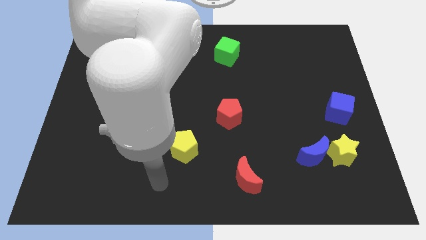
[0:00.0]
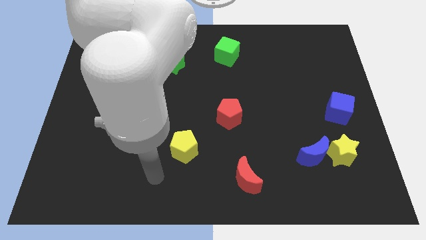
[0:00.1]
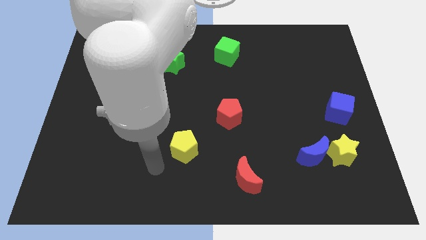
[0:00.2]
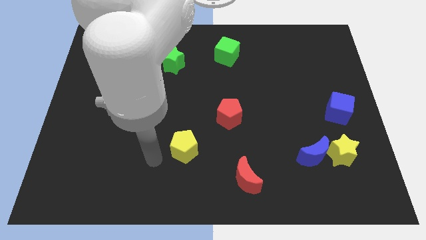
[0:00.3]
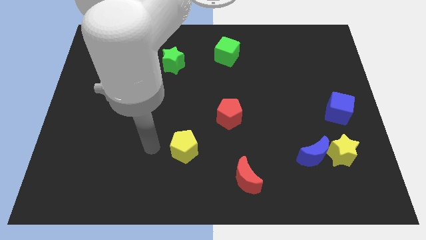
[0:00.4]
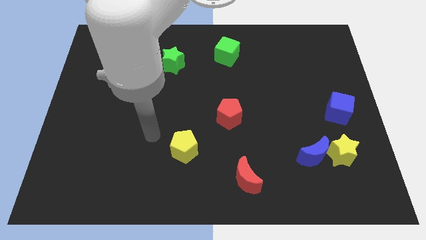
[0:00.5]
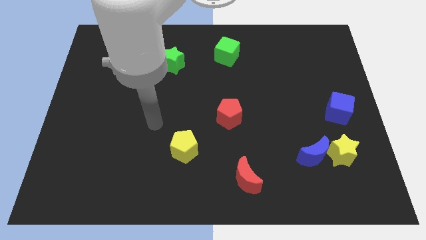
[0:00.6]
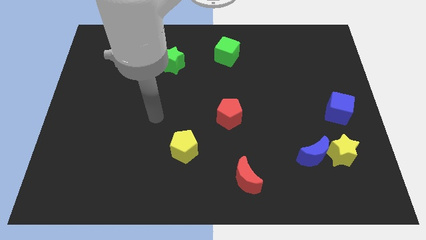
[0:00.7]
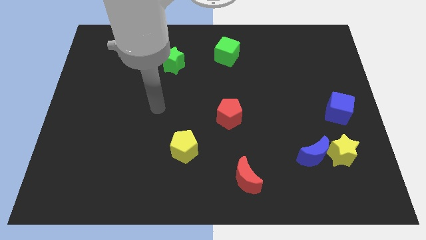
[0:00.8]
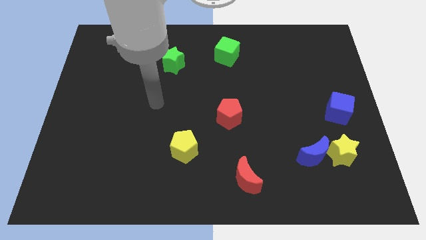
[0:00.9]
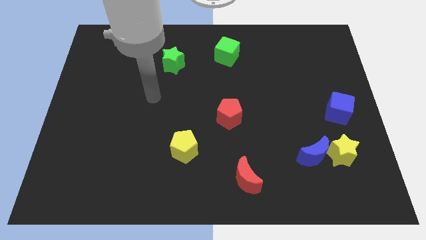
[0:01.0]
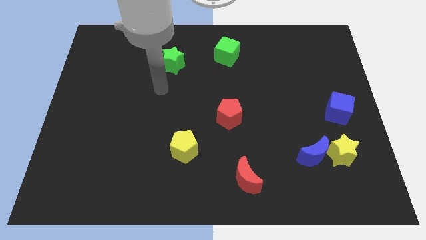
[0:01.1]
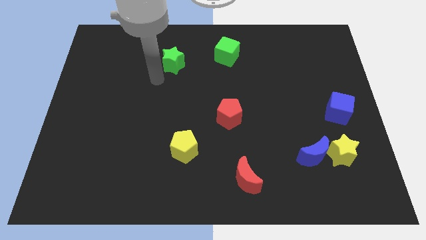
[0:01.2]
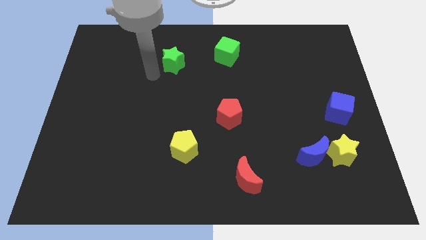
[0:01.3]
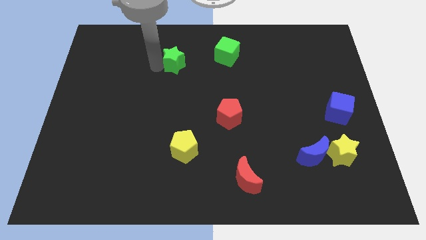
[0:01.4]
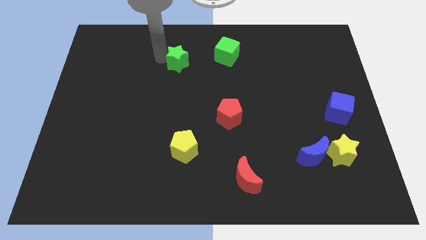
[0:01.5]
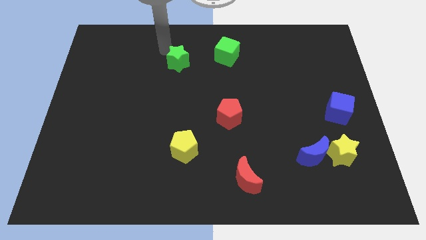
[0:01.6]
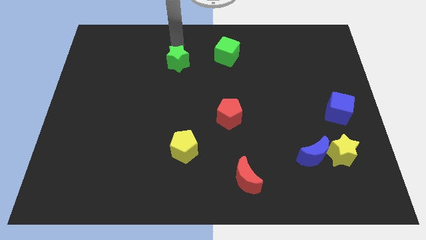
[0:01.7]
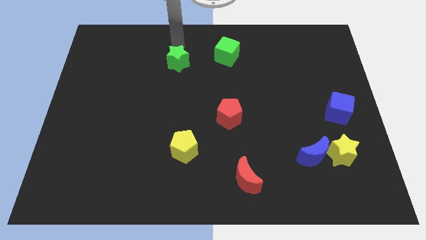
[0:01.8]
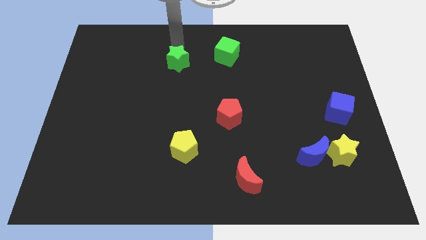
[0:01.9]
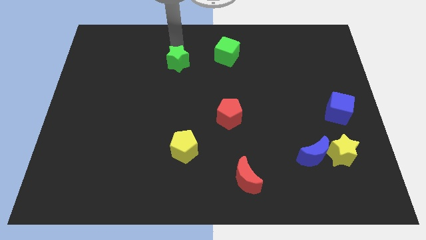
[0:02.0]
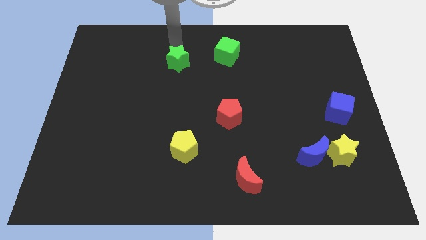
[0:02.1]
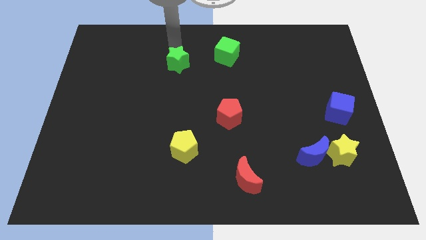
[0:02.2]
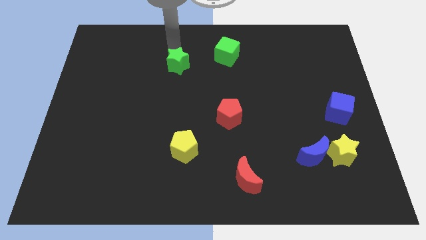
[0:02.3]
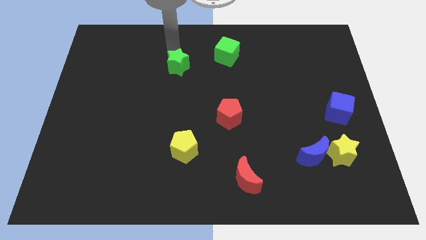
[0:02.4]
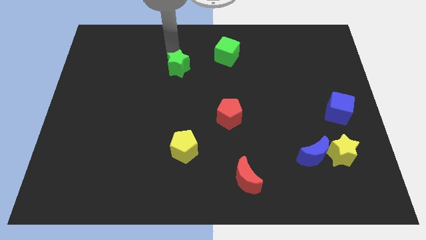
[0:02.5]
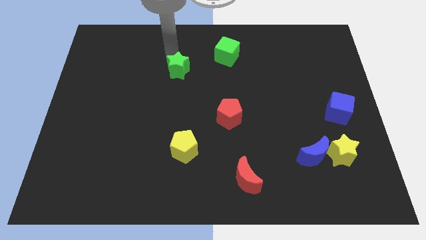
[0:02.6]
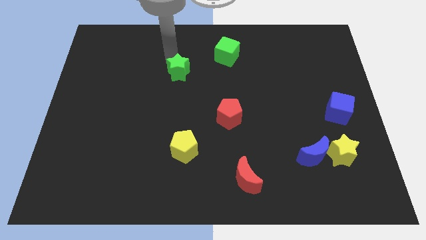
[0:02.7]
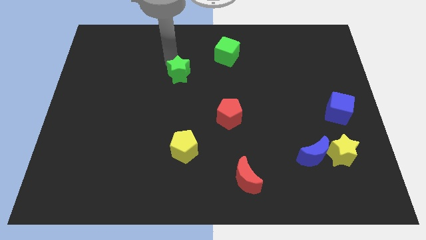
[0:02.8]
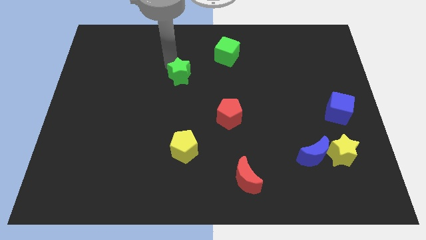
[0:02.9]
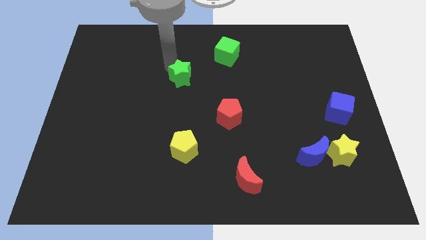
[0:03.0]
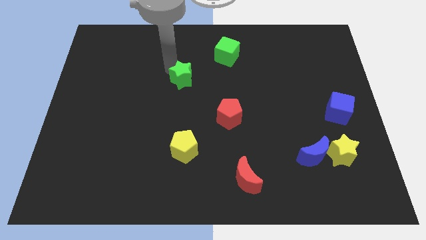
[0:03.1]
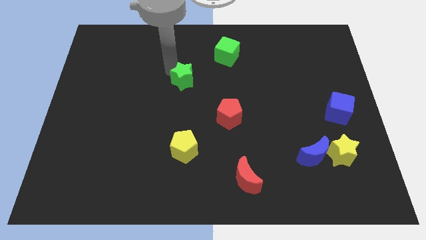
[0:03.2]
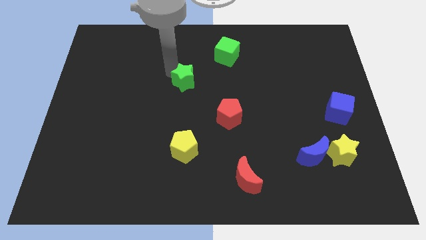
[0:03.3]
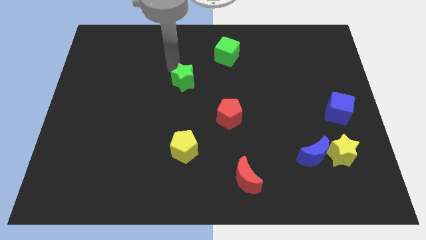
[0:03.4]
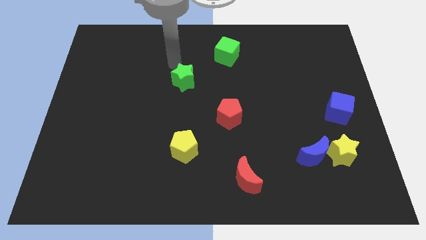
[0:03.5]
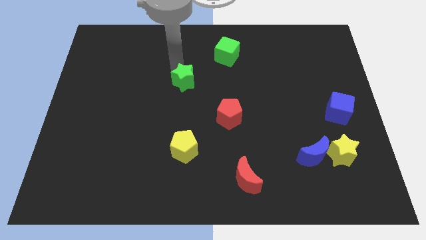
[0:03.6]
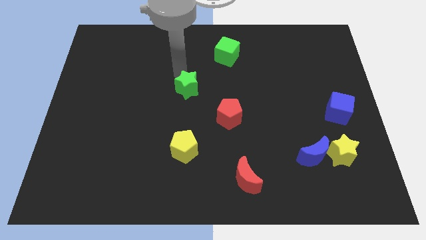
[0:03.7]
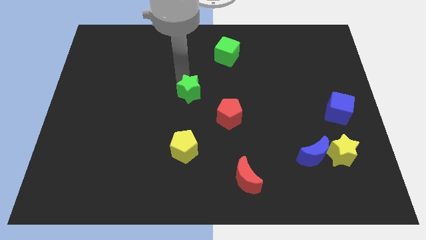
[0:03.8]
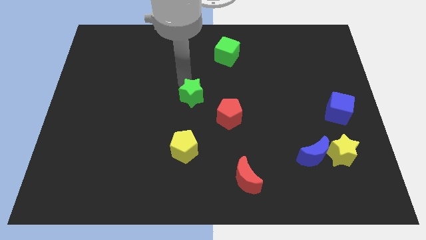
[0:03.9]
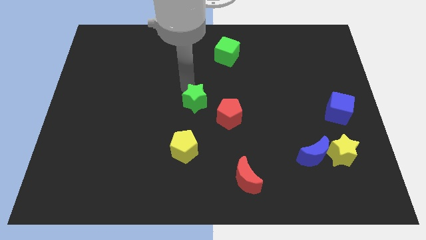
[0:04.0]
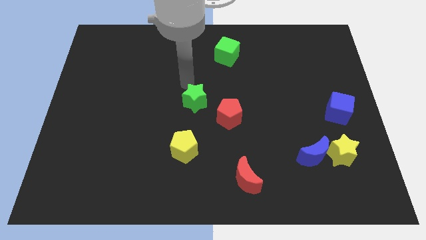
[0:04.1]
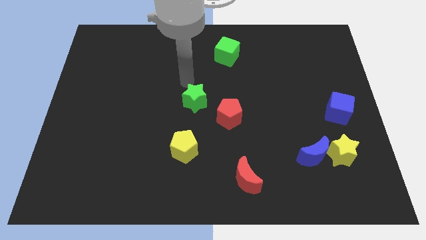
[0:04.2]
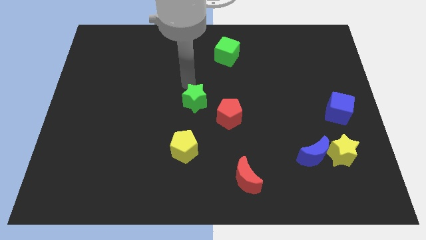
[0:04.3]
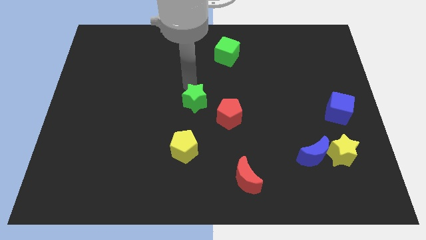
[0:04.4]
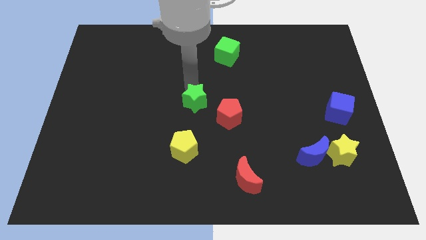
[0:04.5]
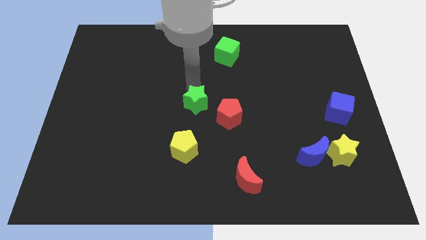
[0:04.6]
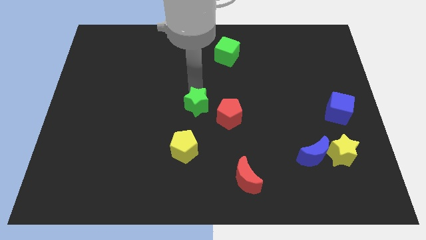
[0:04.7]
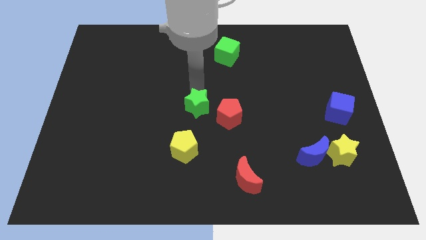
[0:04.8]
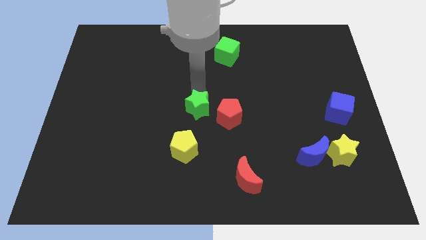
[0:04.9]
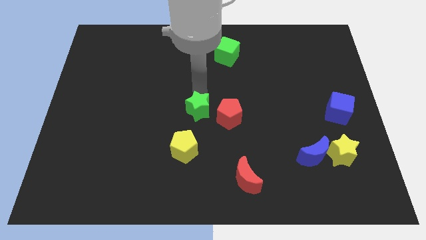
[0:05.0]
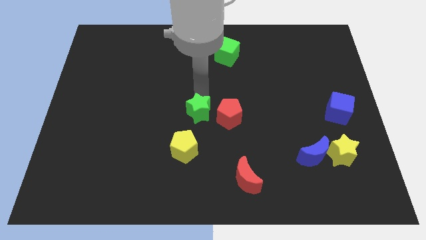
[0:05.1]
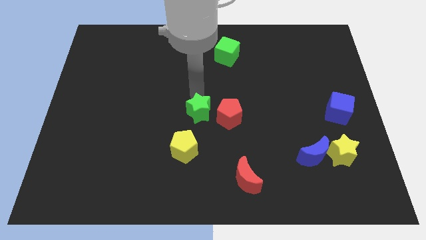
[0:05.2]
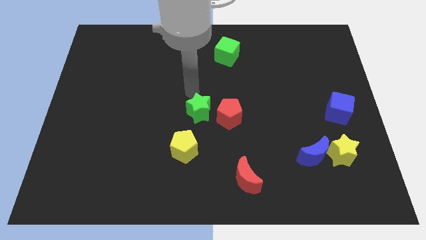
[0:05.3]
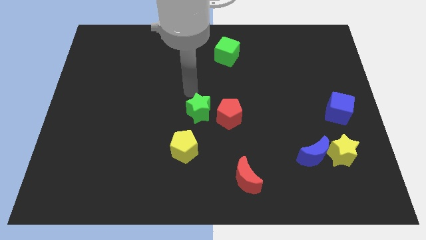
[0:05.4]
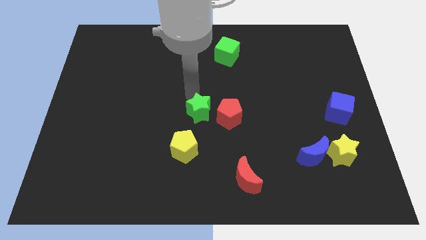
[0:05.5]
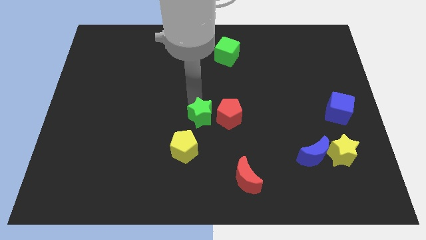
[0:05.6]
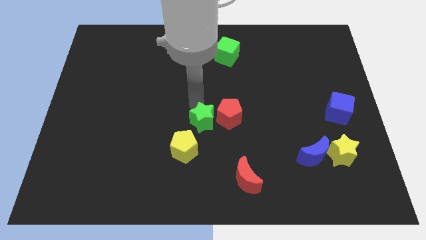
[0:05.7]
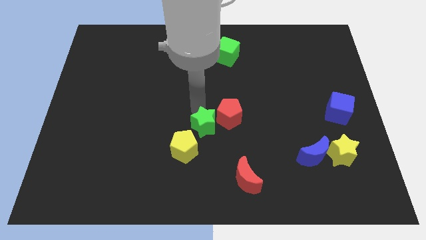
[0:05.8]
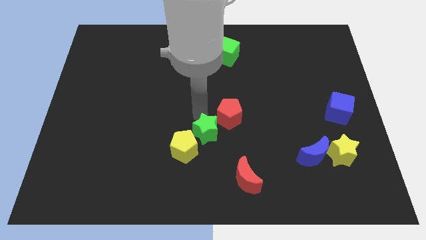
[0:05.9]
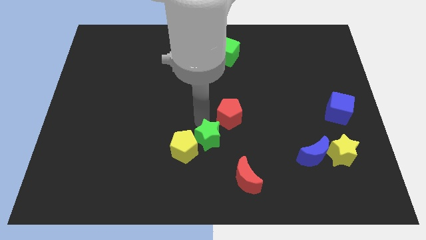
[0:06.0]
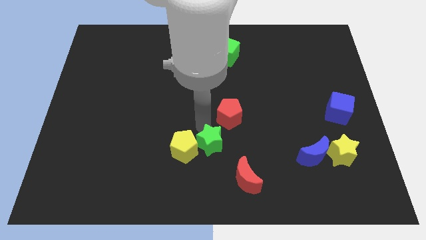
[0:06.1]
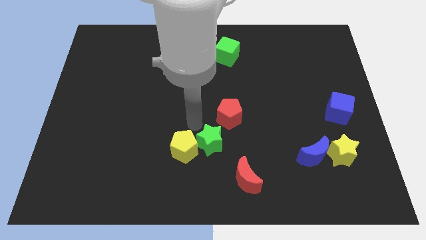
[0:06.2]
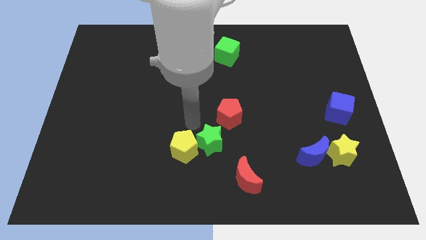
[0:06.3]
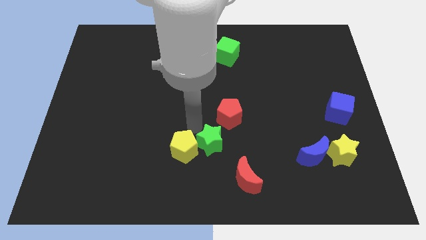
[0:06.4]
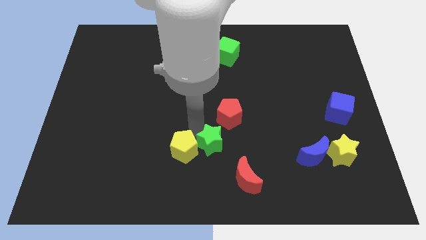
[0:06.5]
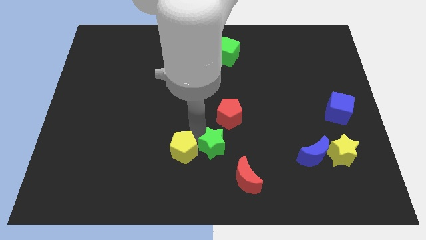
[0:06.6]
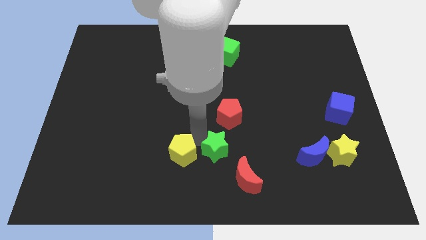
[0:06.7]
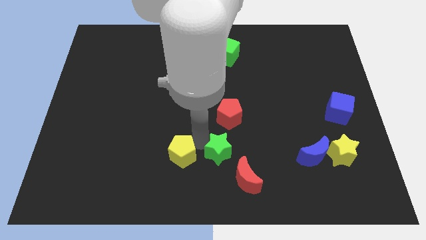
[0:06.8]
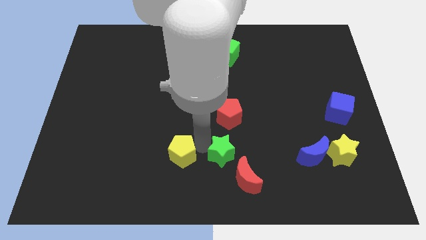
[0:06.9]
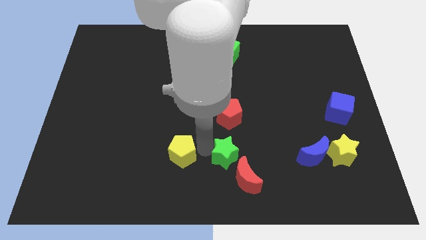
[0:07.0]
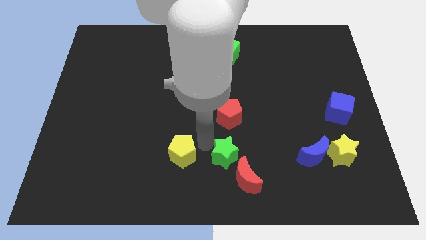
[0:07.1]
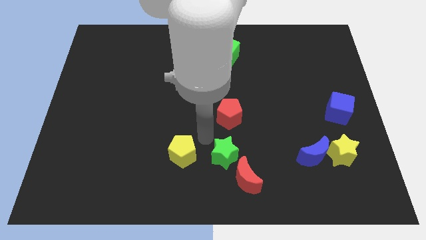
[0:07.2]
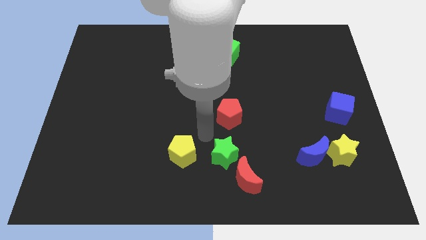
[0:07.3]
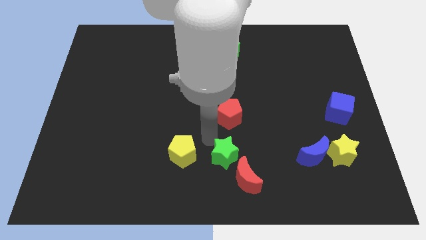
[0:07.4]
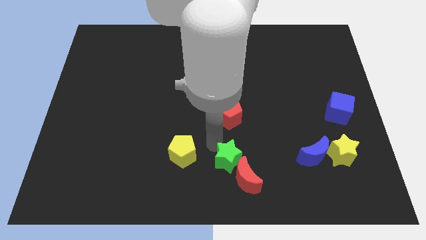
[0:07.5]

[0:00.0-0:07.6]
move the green star towards the red moon
